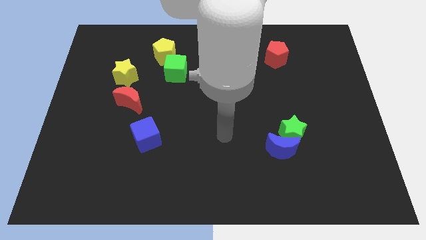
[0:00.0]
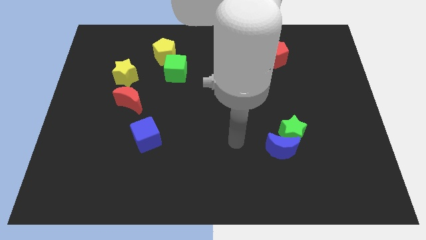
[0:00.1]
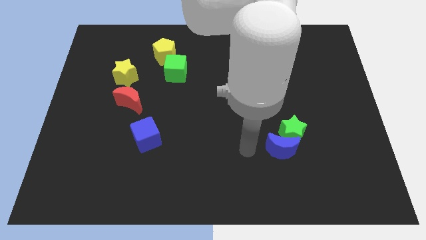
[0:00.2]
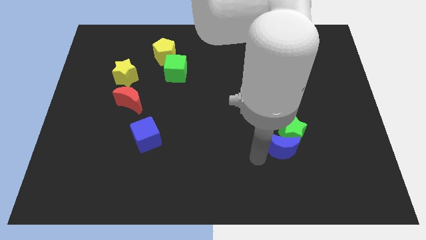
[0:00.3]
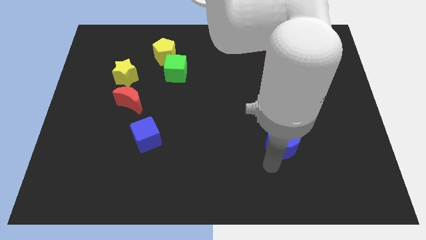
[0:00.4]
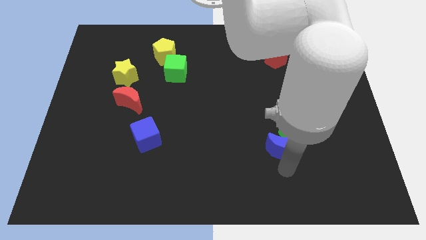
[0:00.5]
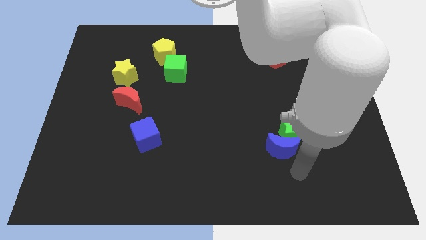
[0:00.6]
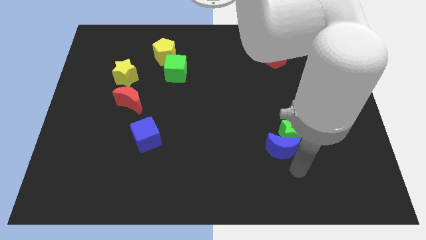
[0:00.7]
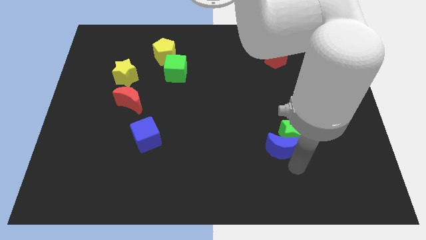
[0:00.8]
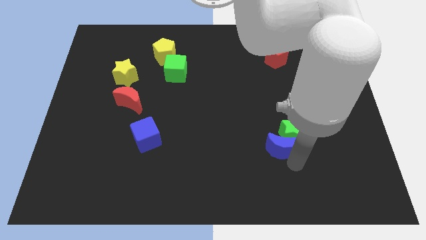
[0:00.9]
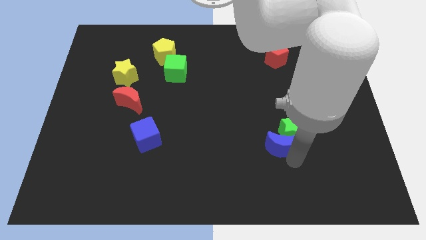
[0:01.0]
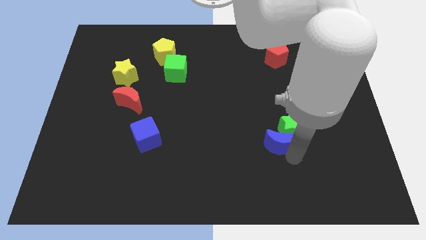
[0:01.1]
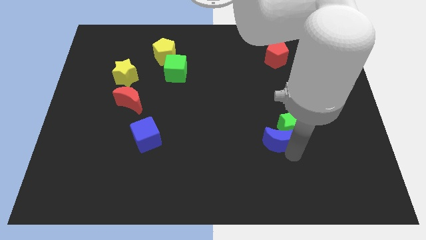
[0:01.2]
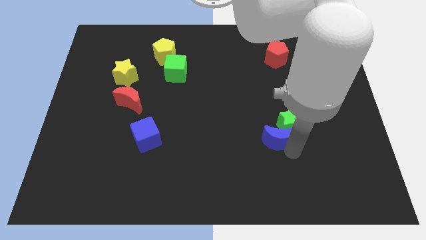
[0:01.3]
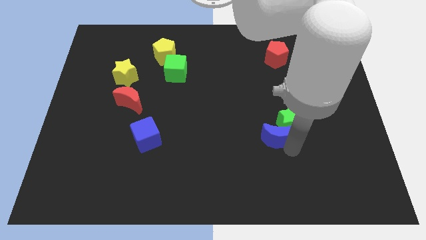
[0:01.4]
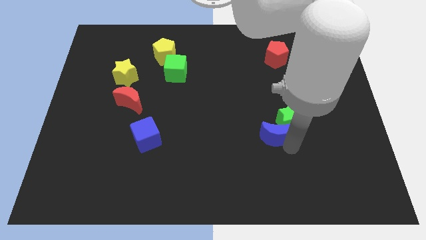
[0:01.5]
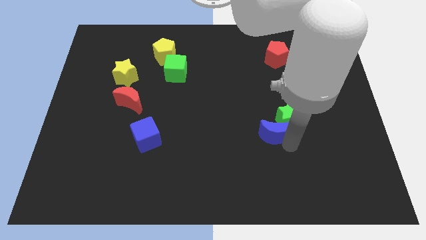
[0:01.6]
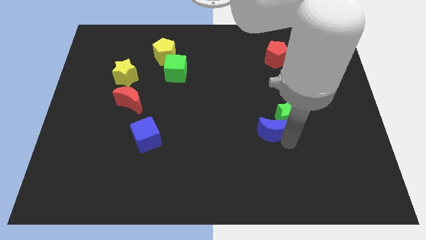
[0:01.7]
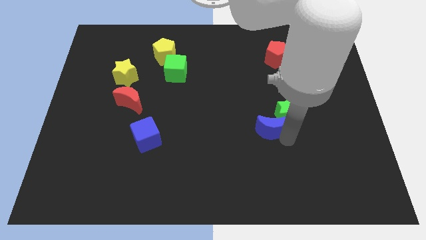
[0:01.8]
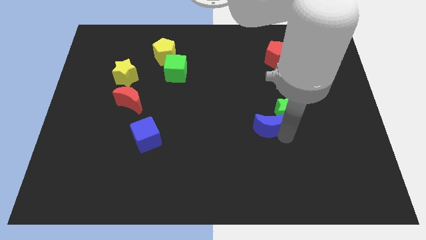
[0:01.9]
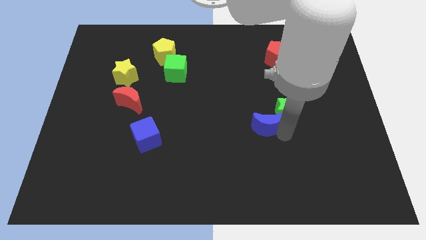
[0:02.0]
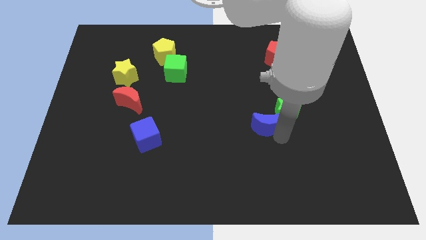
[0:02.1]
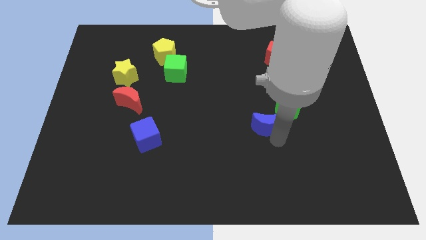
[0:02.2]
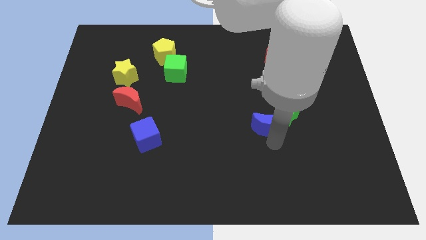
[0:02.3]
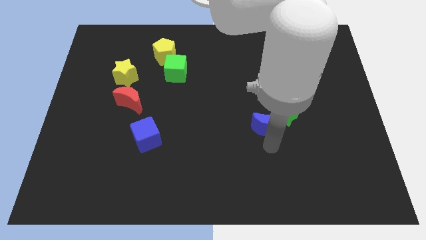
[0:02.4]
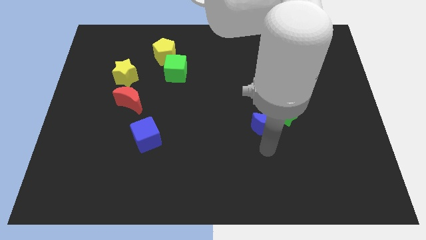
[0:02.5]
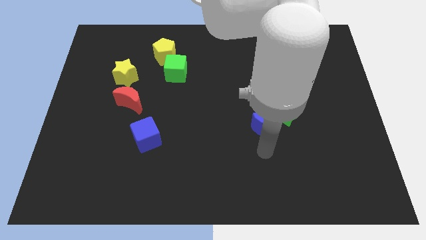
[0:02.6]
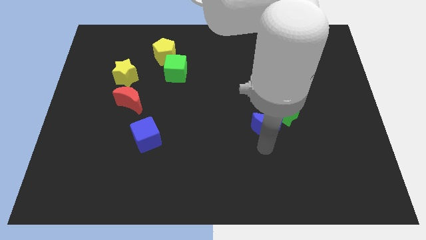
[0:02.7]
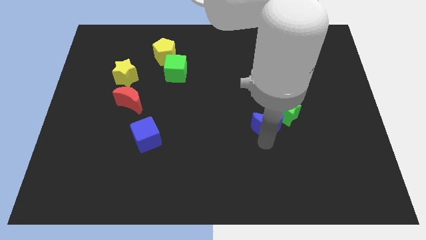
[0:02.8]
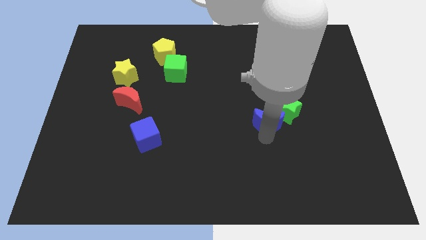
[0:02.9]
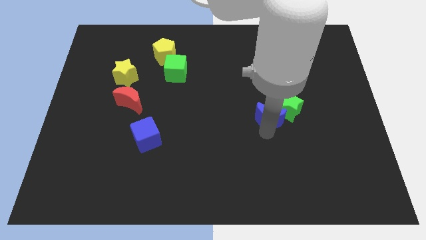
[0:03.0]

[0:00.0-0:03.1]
push the blue moon upwards a little

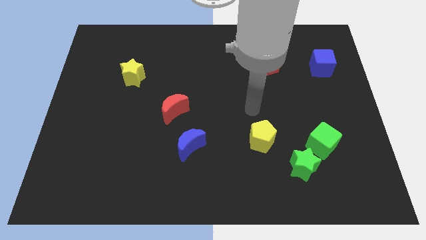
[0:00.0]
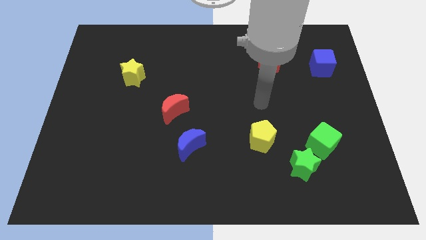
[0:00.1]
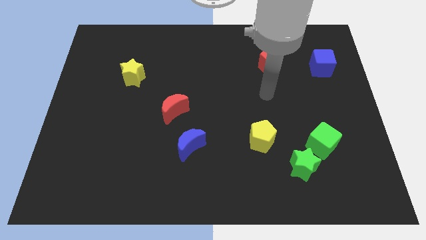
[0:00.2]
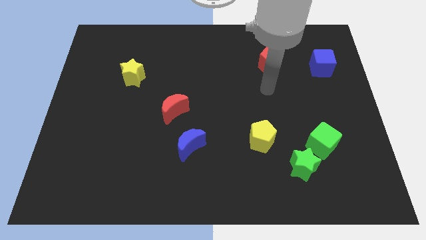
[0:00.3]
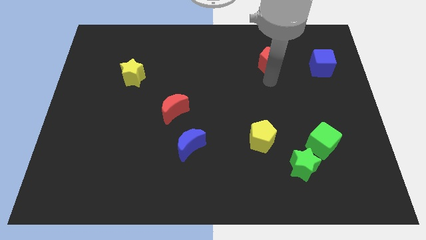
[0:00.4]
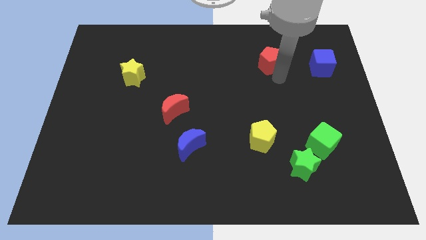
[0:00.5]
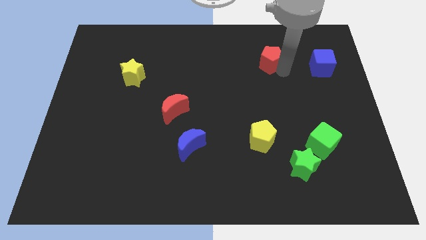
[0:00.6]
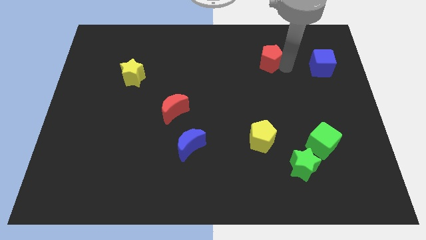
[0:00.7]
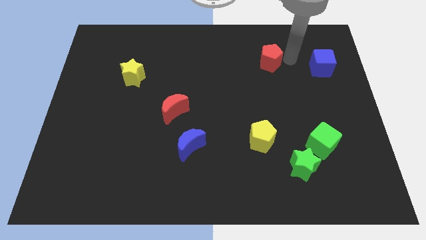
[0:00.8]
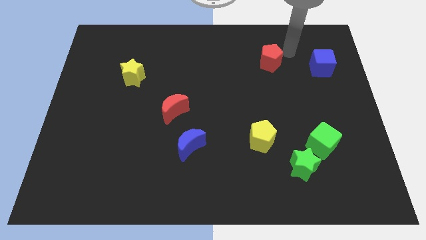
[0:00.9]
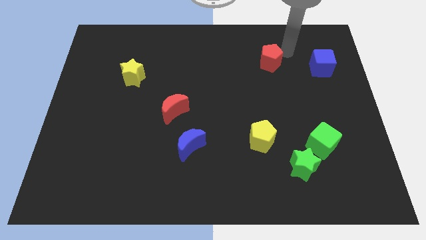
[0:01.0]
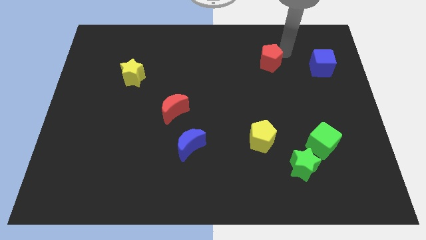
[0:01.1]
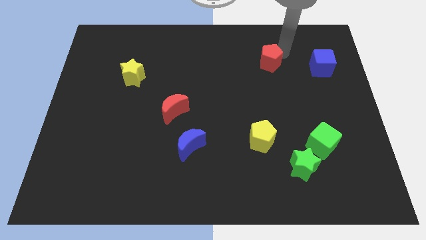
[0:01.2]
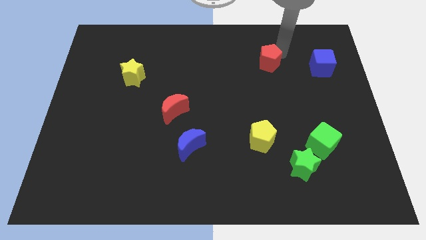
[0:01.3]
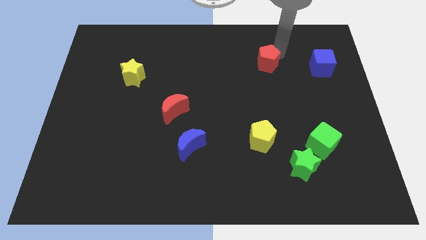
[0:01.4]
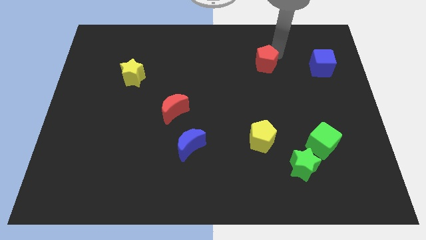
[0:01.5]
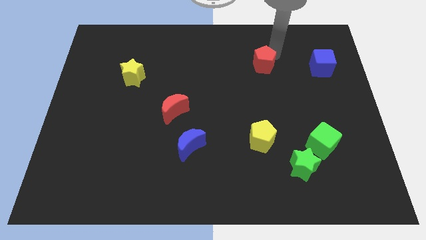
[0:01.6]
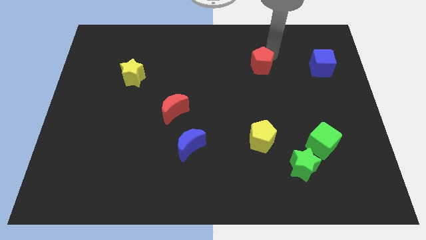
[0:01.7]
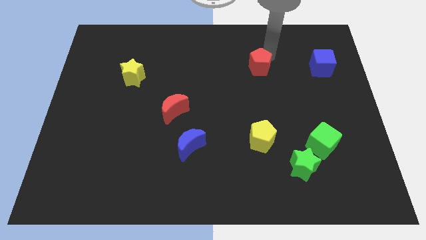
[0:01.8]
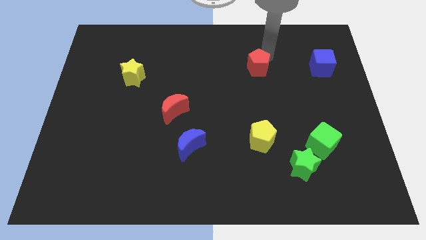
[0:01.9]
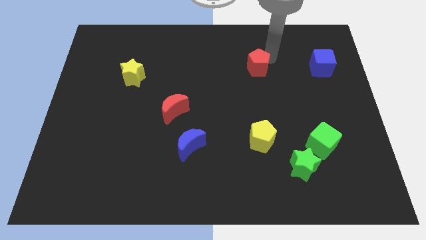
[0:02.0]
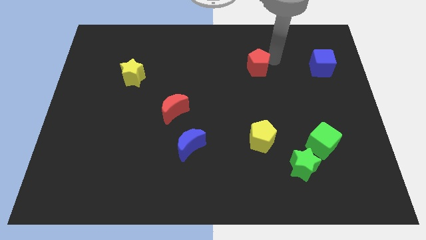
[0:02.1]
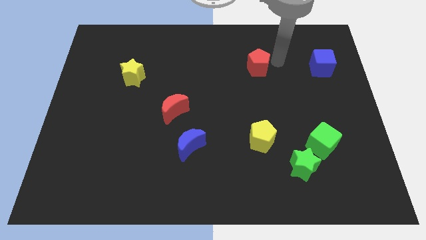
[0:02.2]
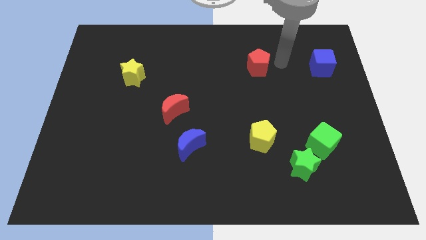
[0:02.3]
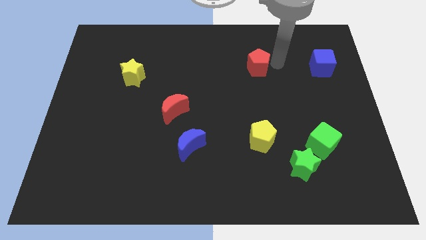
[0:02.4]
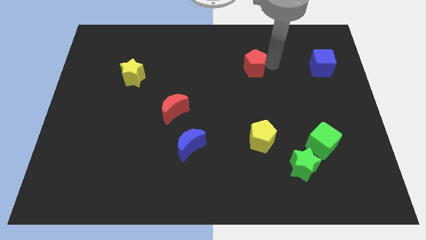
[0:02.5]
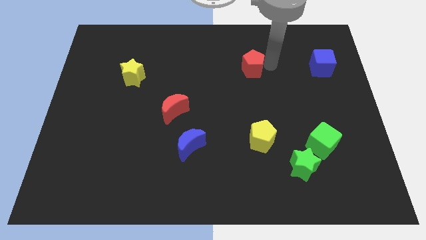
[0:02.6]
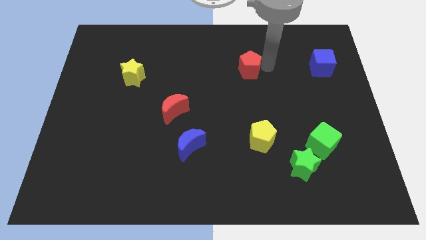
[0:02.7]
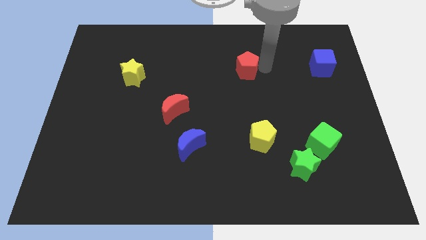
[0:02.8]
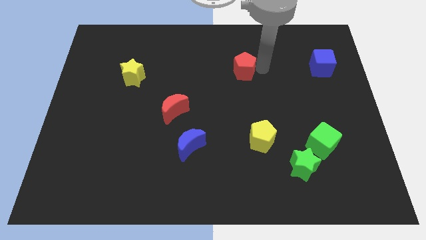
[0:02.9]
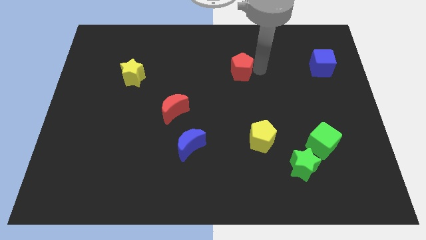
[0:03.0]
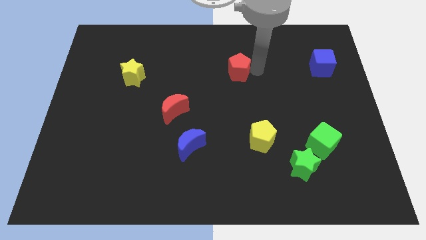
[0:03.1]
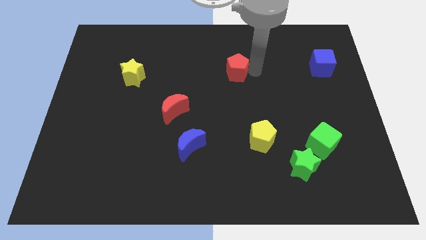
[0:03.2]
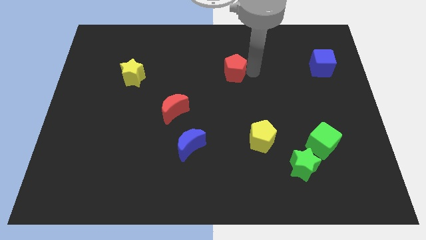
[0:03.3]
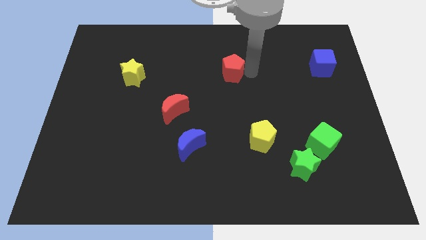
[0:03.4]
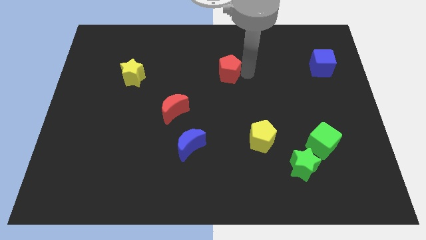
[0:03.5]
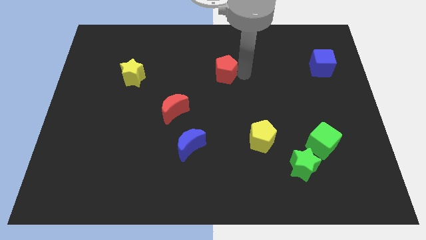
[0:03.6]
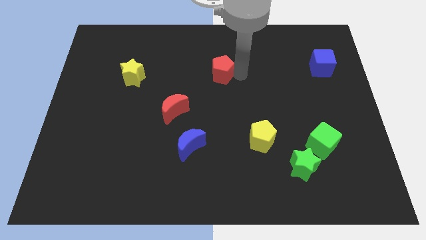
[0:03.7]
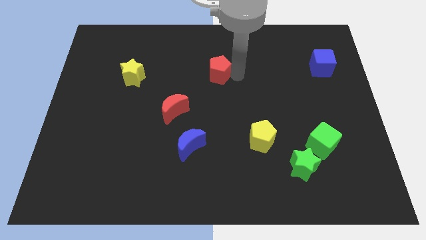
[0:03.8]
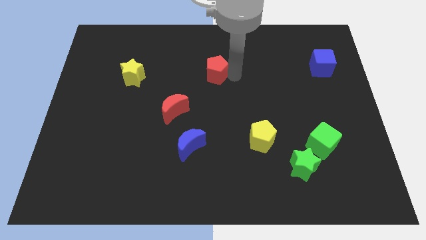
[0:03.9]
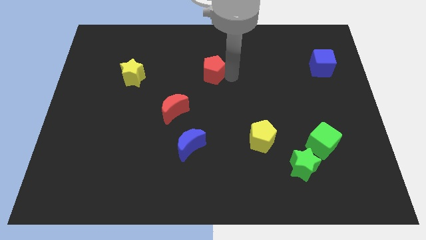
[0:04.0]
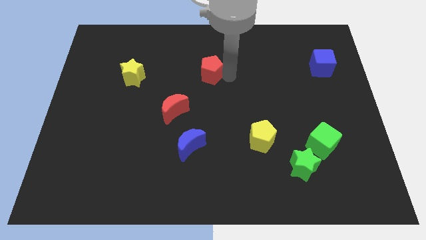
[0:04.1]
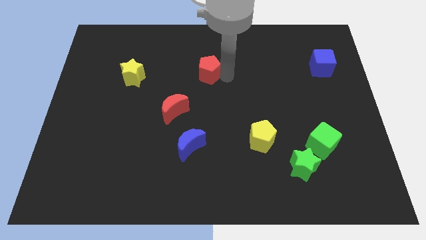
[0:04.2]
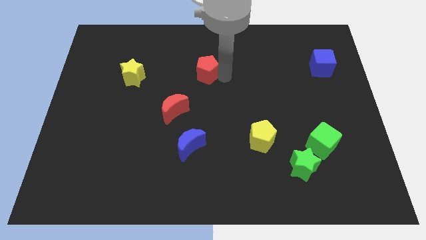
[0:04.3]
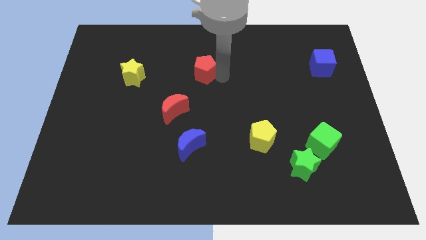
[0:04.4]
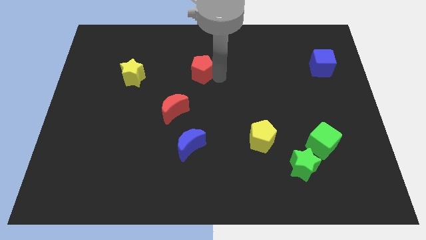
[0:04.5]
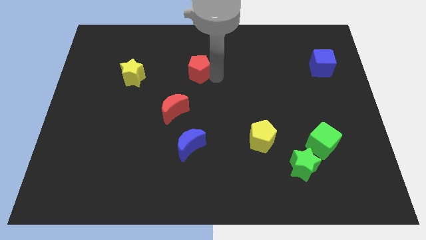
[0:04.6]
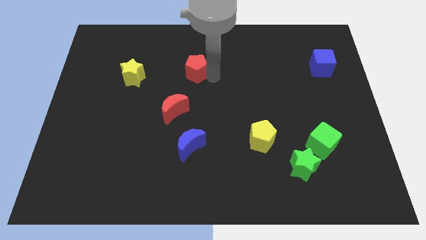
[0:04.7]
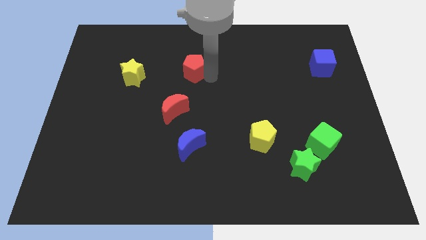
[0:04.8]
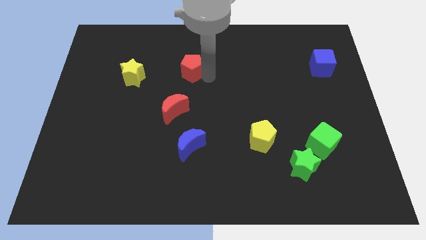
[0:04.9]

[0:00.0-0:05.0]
push the red pentagon left
